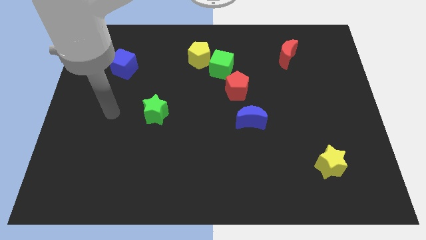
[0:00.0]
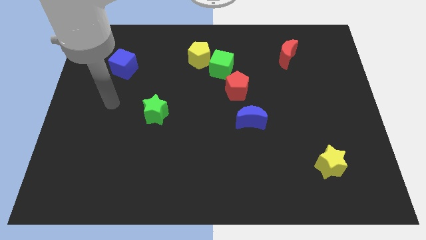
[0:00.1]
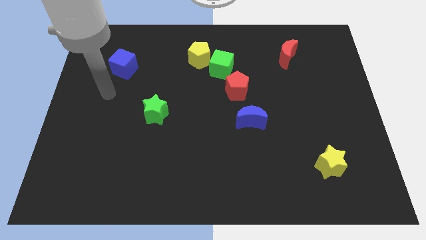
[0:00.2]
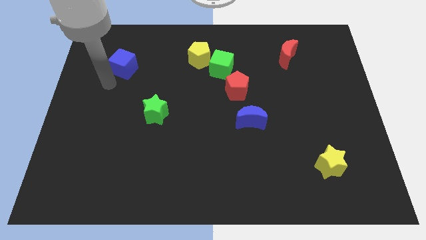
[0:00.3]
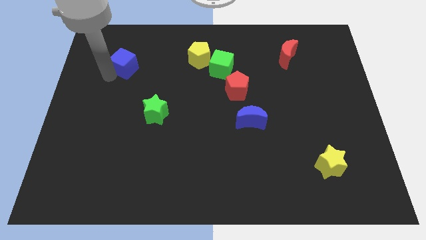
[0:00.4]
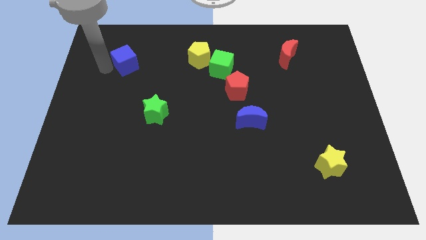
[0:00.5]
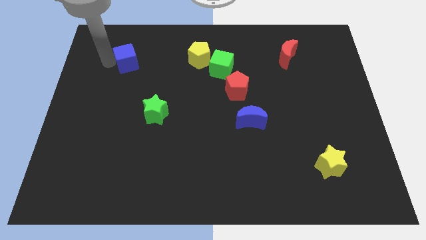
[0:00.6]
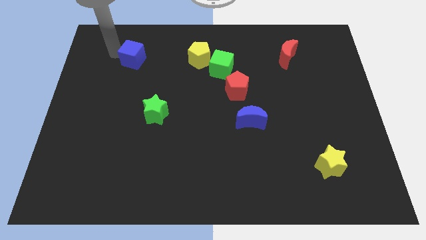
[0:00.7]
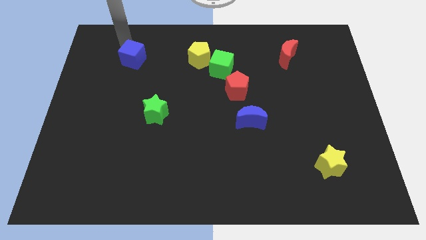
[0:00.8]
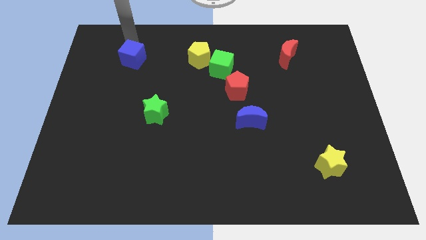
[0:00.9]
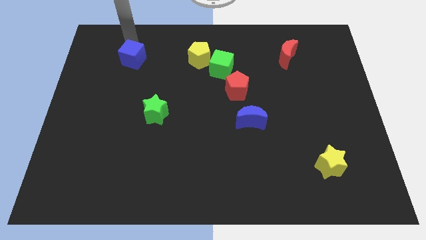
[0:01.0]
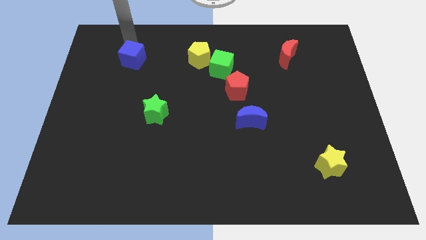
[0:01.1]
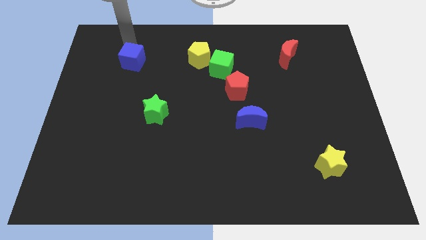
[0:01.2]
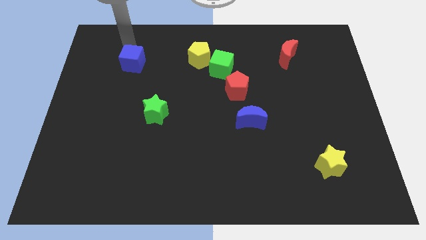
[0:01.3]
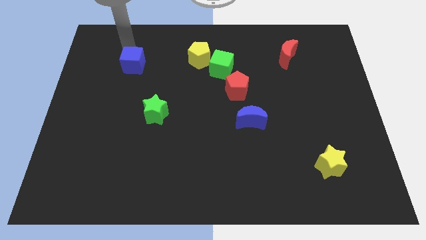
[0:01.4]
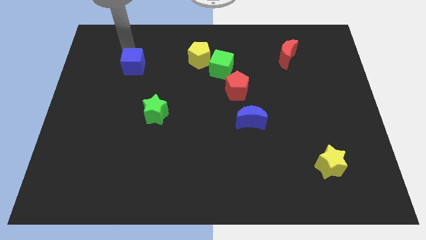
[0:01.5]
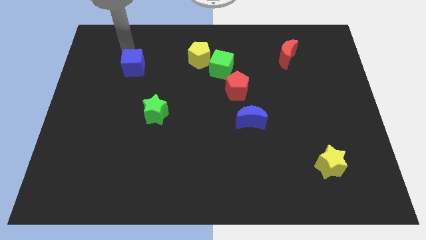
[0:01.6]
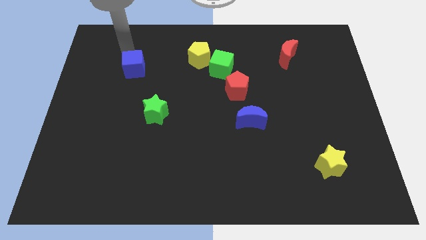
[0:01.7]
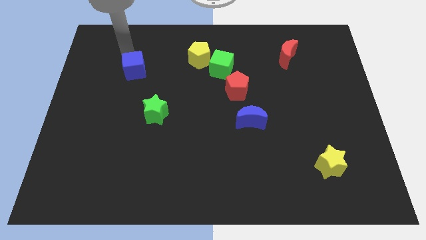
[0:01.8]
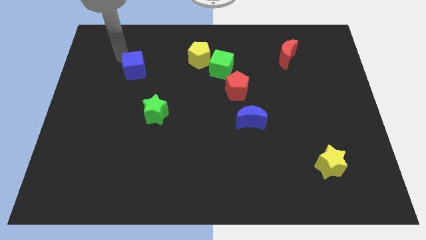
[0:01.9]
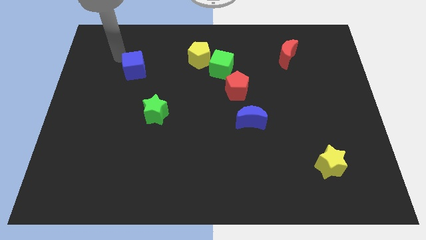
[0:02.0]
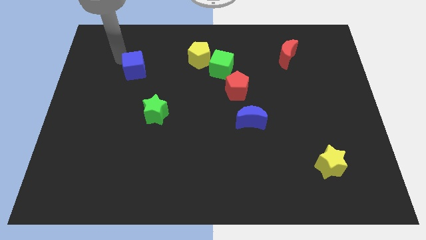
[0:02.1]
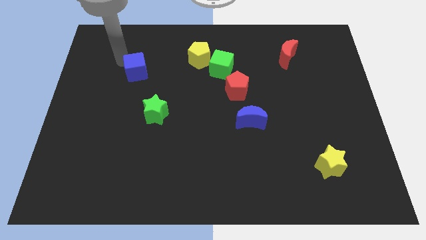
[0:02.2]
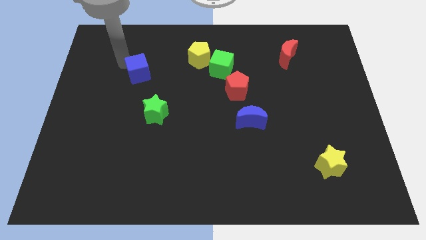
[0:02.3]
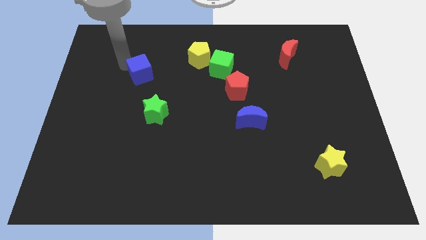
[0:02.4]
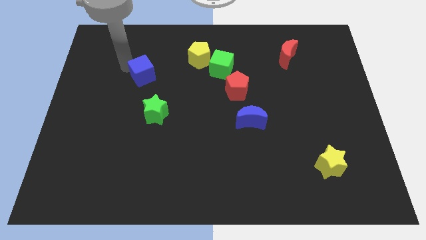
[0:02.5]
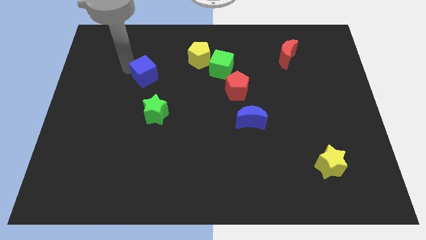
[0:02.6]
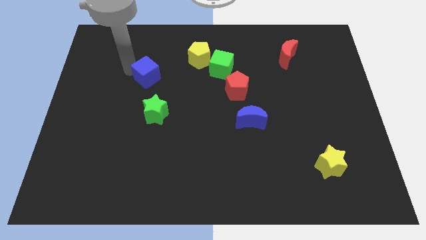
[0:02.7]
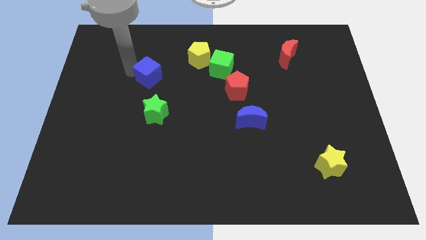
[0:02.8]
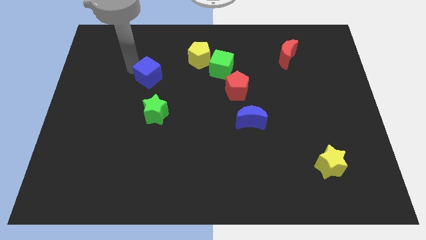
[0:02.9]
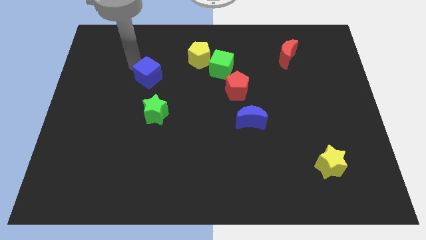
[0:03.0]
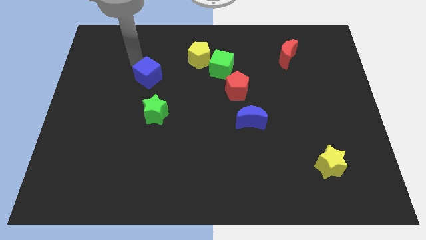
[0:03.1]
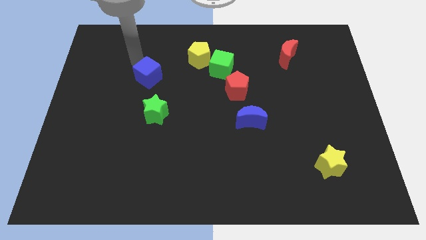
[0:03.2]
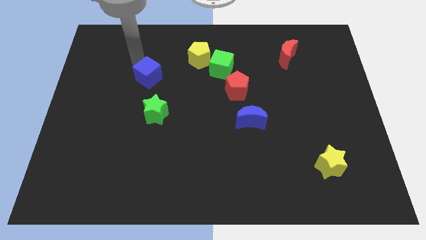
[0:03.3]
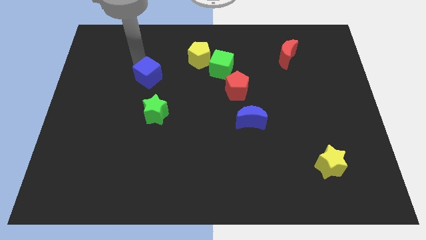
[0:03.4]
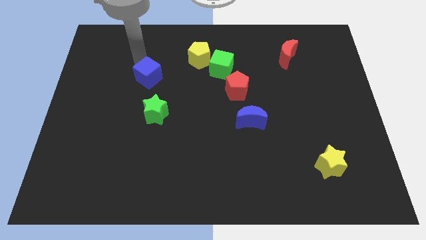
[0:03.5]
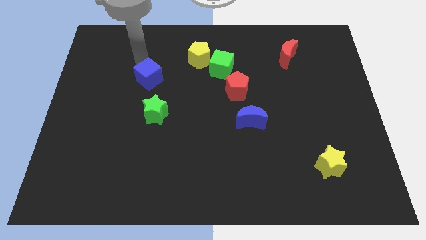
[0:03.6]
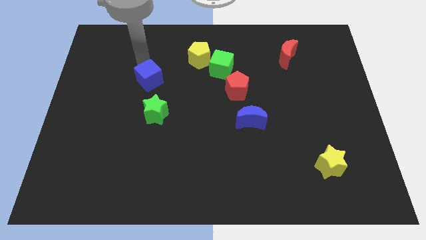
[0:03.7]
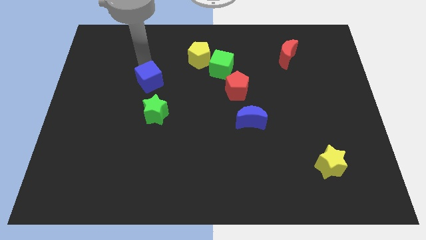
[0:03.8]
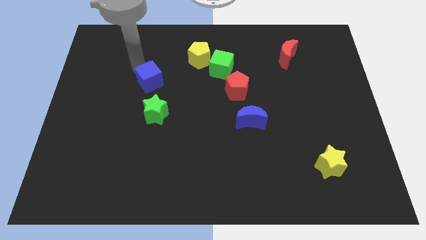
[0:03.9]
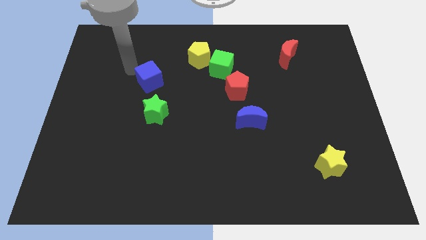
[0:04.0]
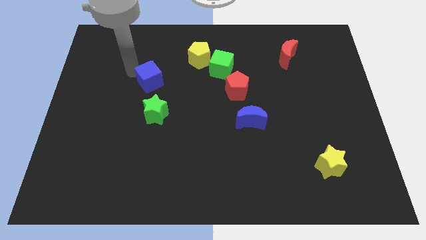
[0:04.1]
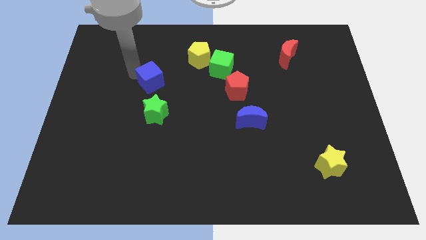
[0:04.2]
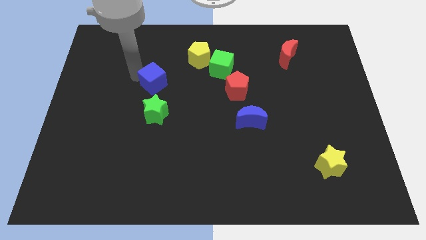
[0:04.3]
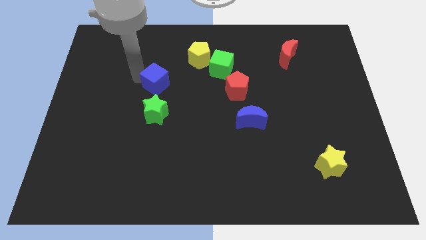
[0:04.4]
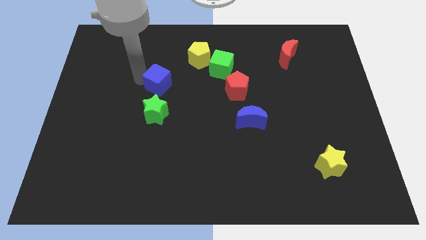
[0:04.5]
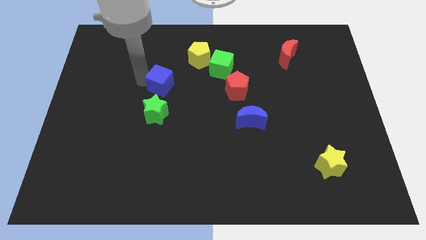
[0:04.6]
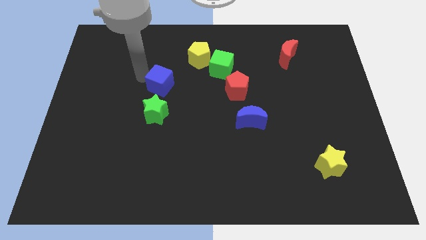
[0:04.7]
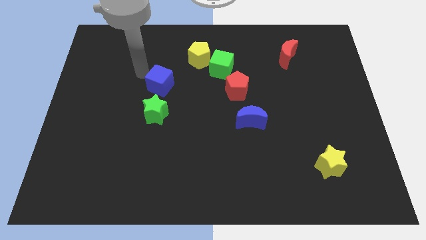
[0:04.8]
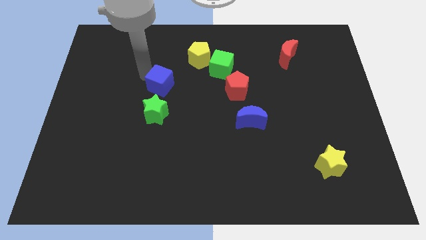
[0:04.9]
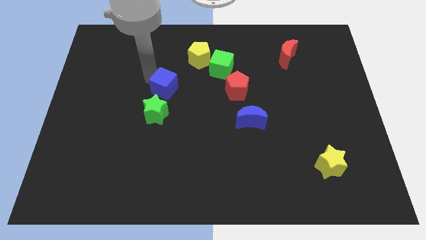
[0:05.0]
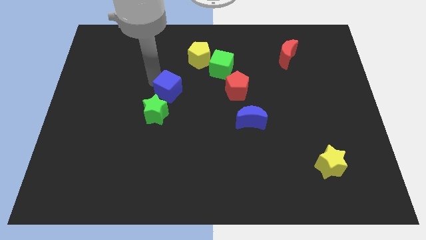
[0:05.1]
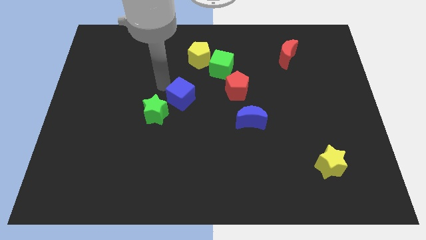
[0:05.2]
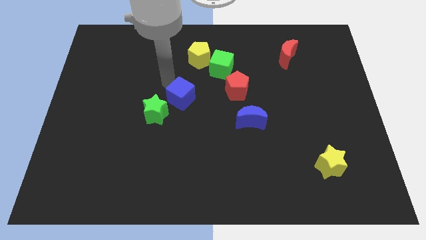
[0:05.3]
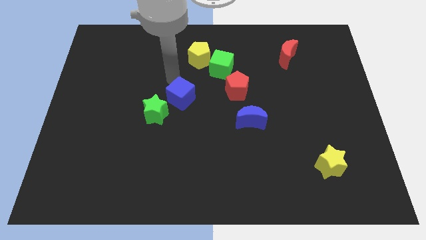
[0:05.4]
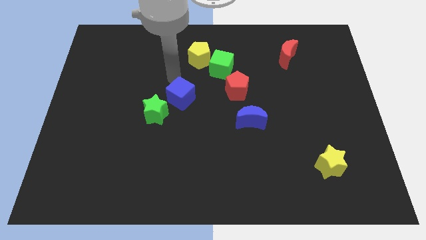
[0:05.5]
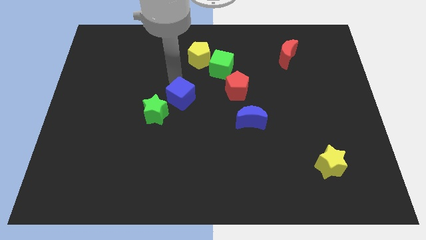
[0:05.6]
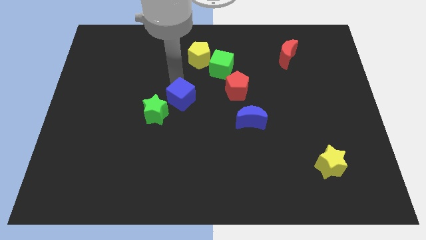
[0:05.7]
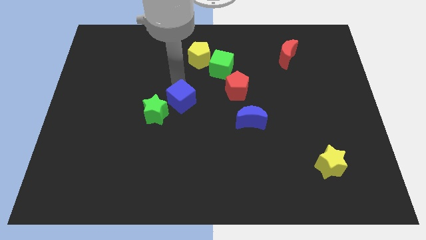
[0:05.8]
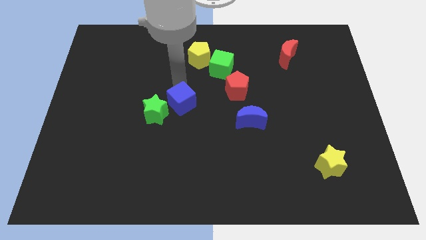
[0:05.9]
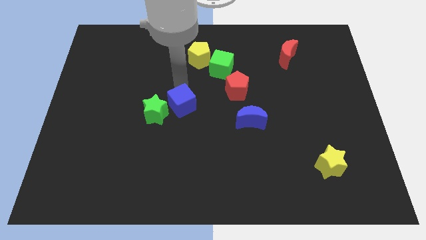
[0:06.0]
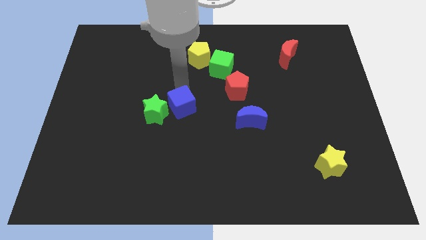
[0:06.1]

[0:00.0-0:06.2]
move the blue cube diagonally downwards and right

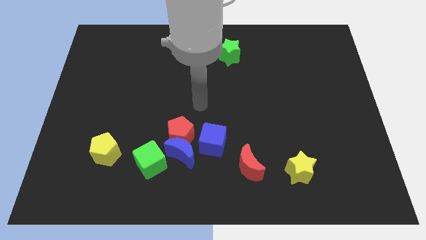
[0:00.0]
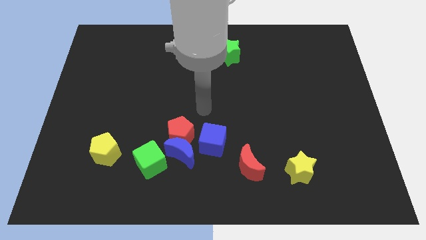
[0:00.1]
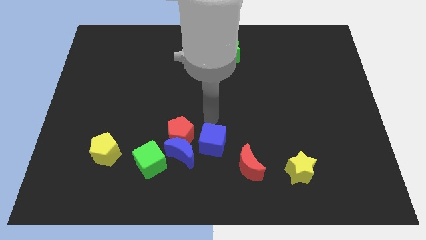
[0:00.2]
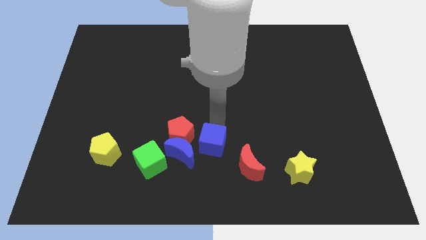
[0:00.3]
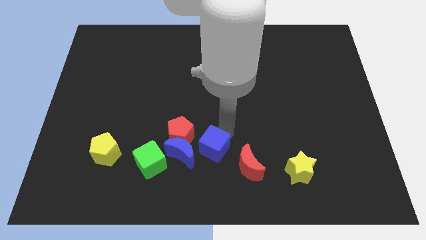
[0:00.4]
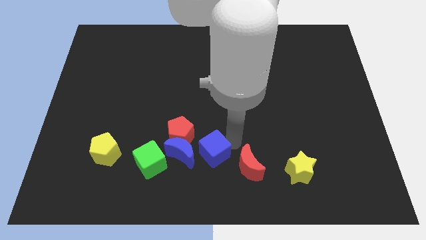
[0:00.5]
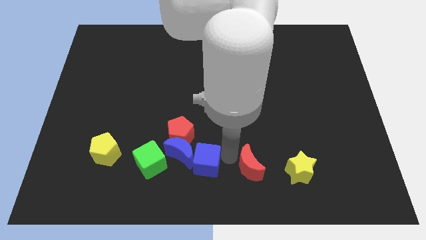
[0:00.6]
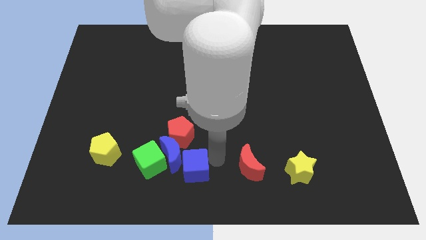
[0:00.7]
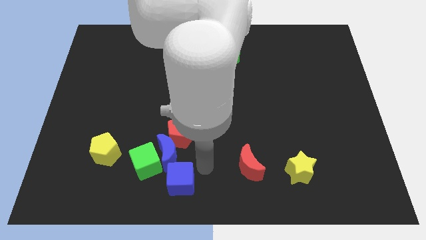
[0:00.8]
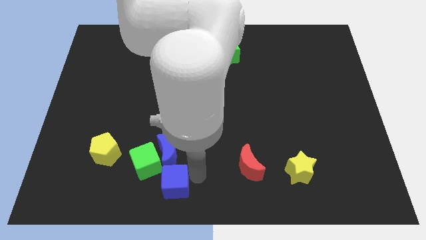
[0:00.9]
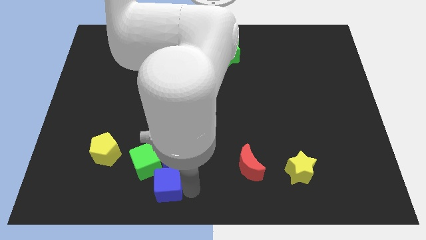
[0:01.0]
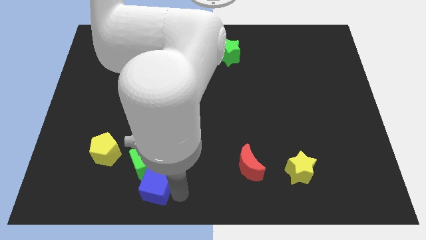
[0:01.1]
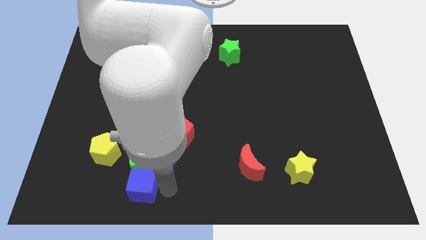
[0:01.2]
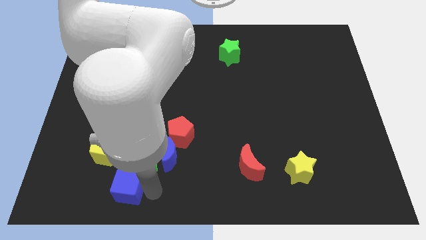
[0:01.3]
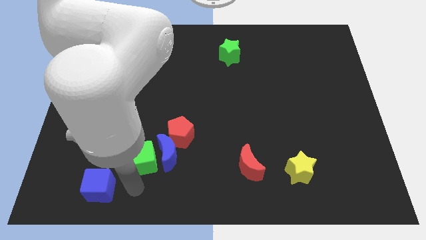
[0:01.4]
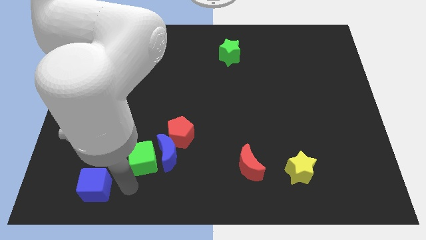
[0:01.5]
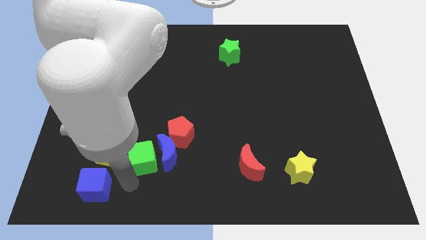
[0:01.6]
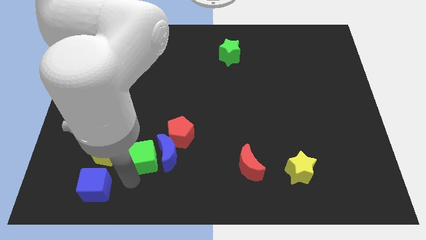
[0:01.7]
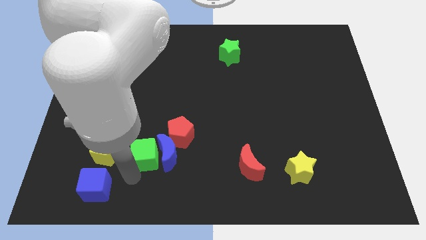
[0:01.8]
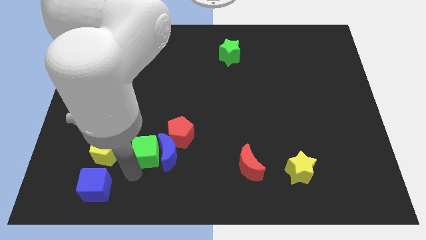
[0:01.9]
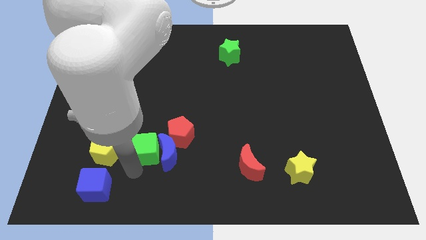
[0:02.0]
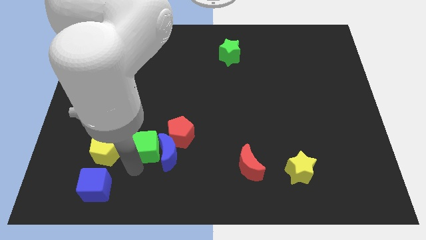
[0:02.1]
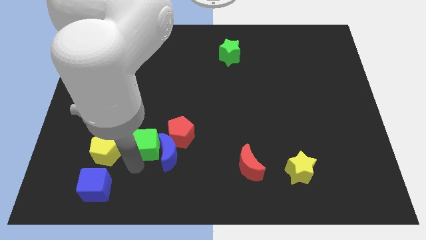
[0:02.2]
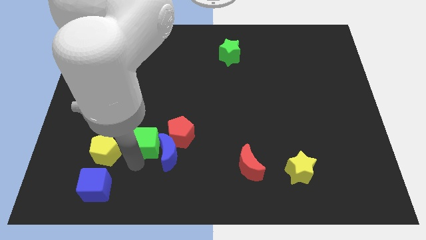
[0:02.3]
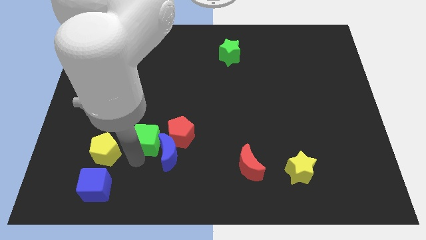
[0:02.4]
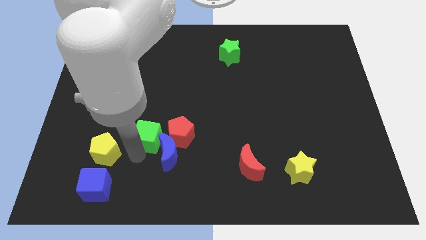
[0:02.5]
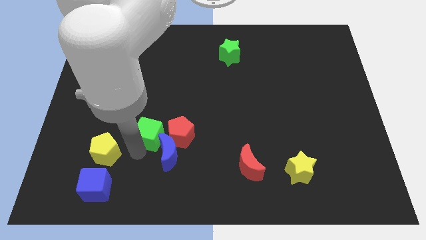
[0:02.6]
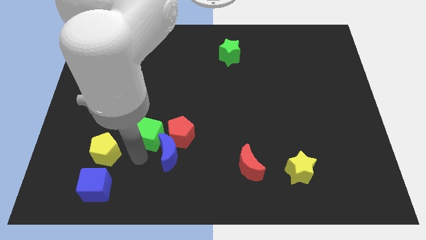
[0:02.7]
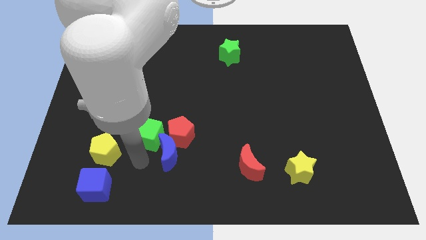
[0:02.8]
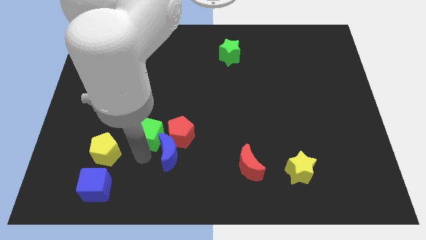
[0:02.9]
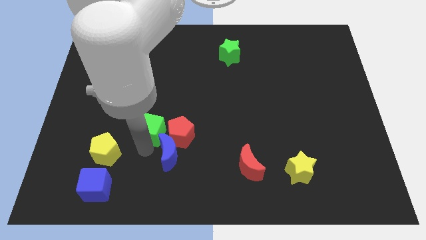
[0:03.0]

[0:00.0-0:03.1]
slide the green cube up slightly
